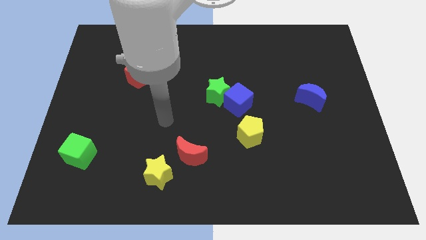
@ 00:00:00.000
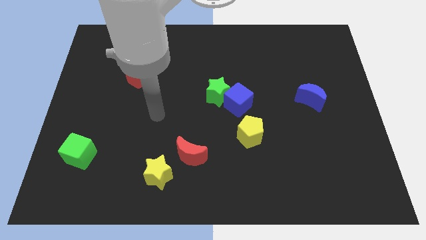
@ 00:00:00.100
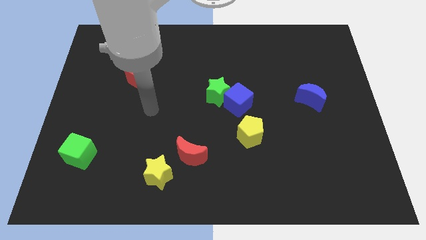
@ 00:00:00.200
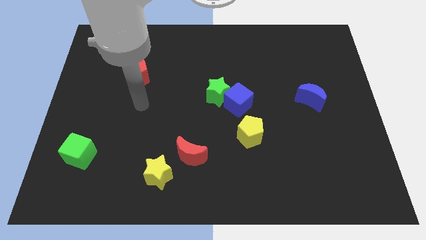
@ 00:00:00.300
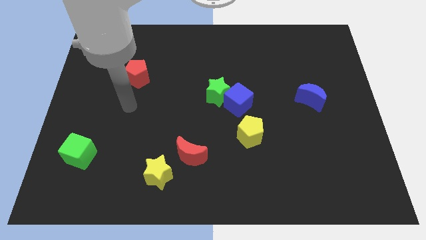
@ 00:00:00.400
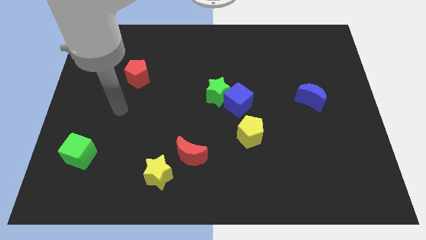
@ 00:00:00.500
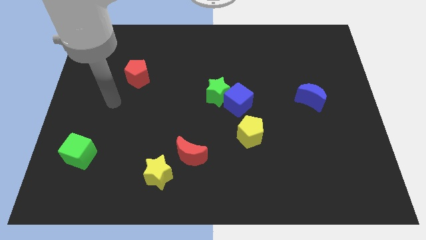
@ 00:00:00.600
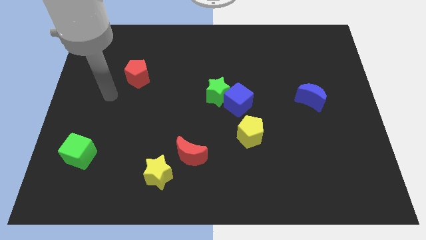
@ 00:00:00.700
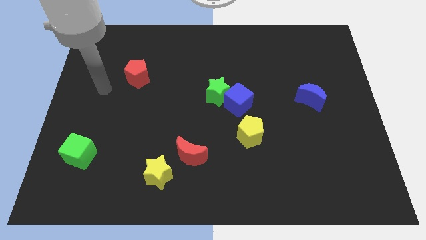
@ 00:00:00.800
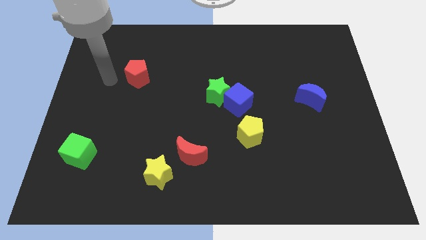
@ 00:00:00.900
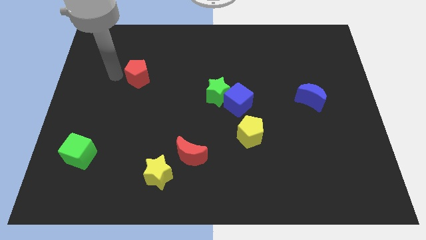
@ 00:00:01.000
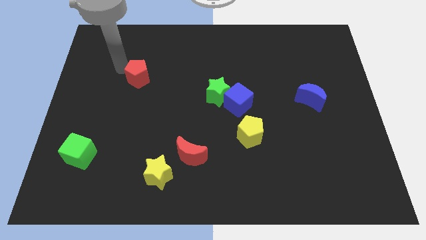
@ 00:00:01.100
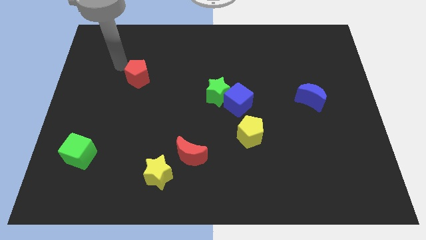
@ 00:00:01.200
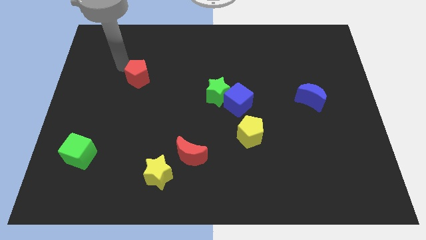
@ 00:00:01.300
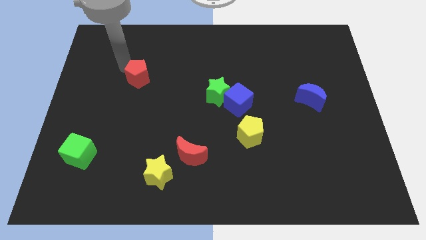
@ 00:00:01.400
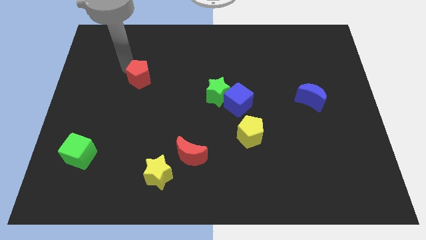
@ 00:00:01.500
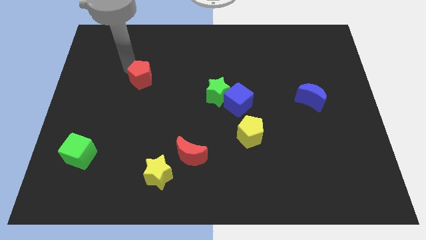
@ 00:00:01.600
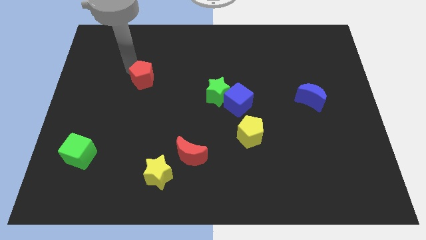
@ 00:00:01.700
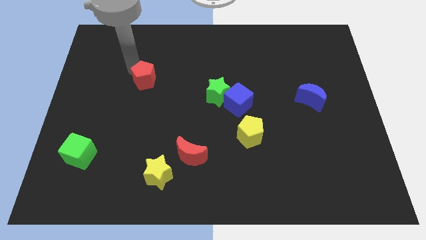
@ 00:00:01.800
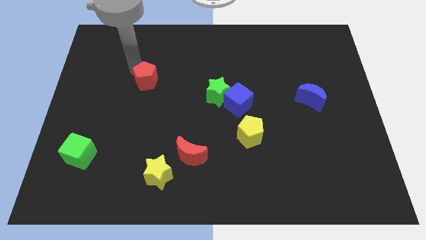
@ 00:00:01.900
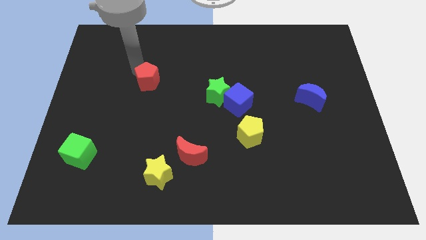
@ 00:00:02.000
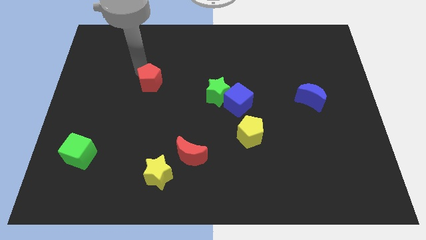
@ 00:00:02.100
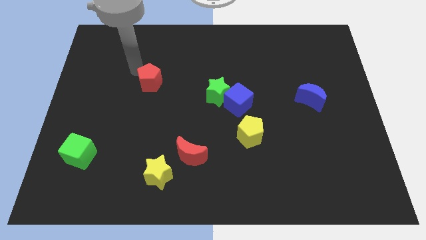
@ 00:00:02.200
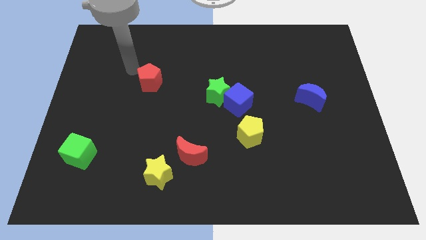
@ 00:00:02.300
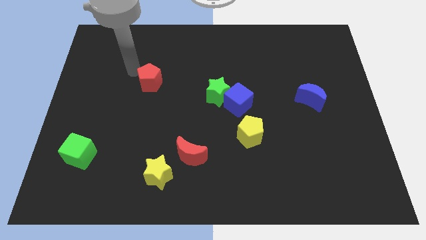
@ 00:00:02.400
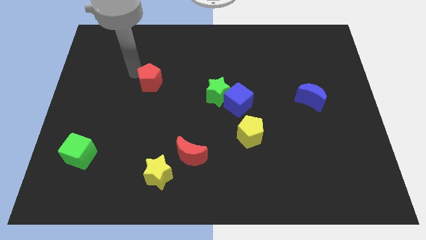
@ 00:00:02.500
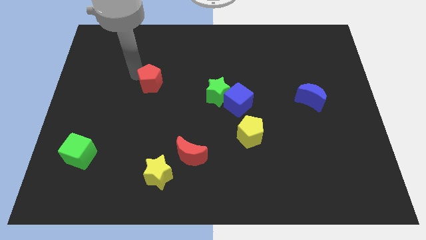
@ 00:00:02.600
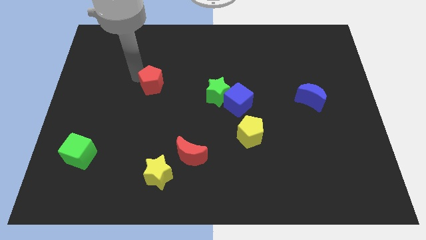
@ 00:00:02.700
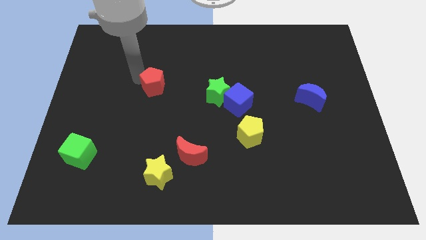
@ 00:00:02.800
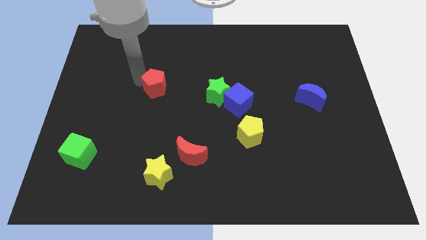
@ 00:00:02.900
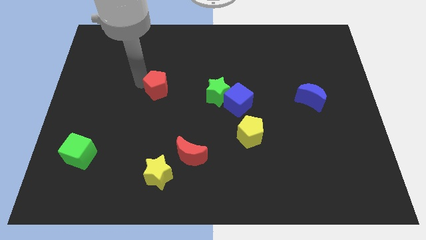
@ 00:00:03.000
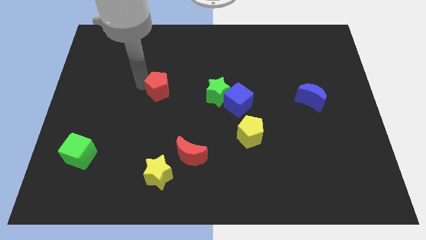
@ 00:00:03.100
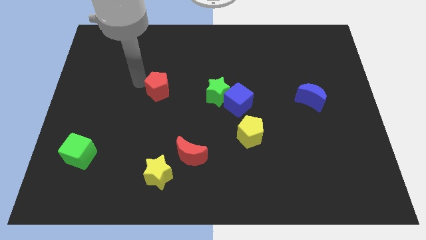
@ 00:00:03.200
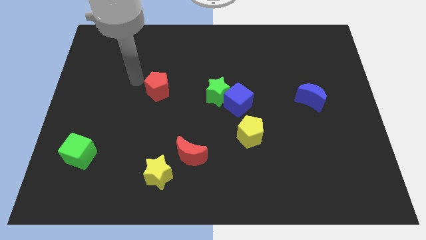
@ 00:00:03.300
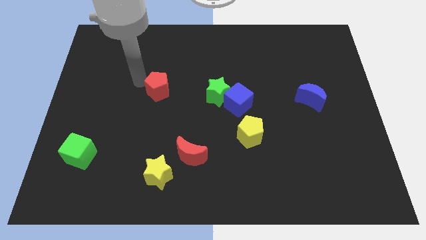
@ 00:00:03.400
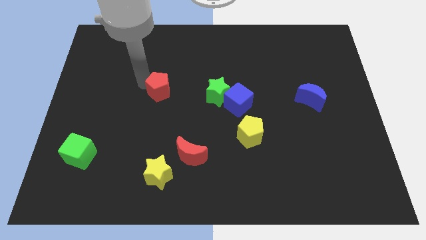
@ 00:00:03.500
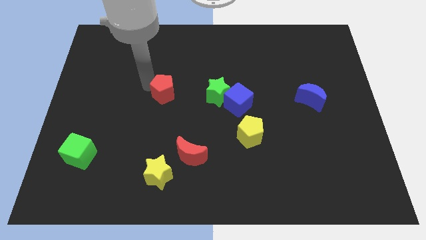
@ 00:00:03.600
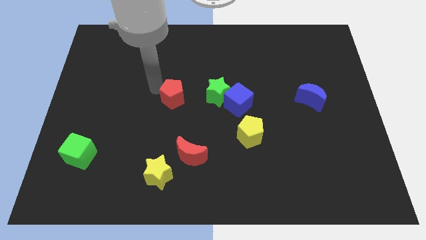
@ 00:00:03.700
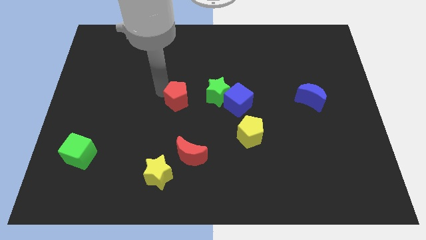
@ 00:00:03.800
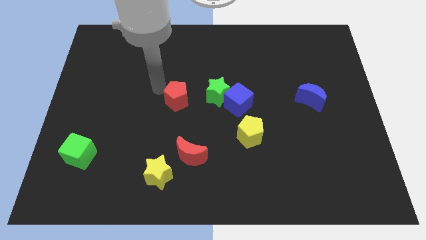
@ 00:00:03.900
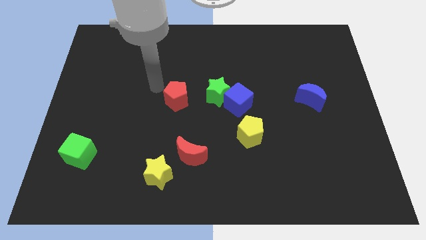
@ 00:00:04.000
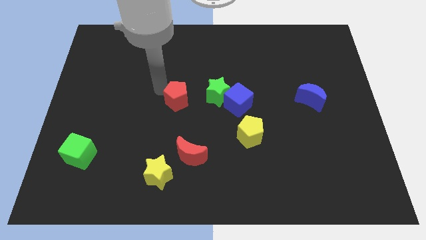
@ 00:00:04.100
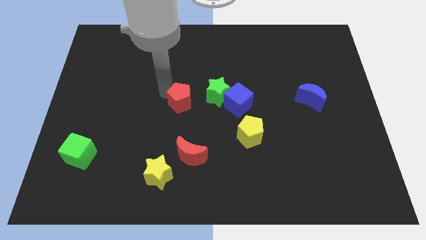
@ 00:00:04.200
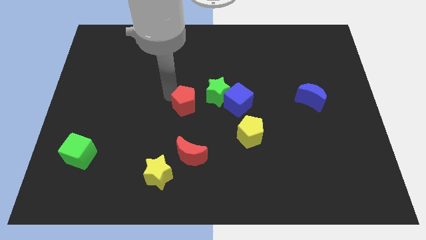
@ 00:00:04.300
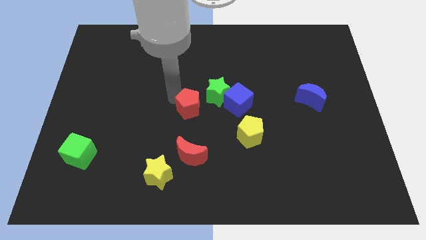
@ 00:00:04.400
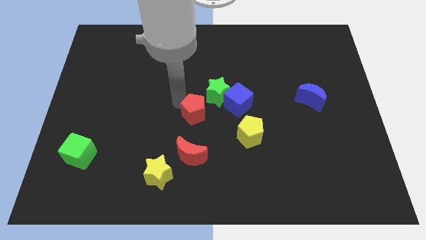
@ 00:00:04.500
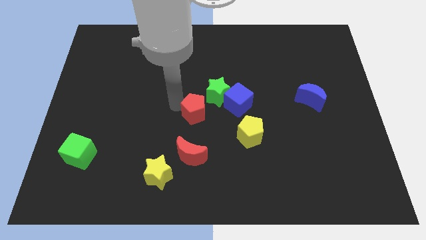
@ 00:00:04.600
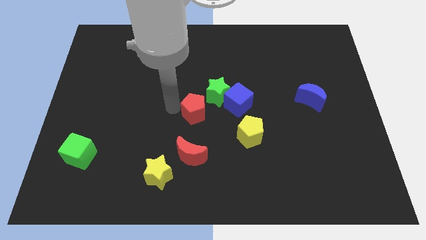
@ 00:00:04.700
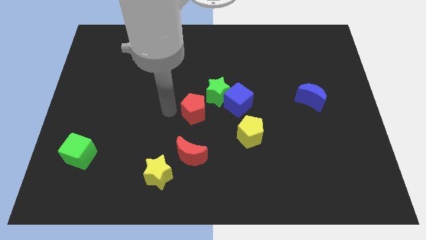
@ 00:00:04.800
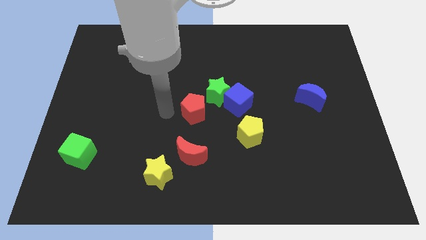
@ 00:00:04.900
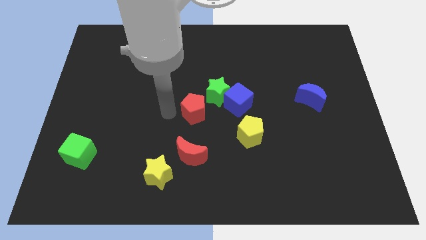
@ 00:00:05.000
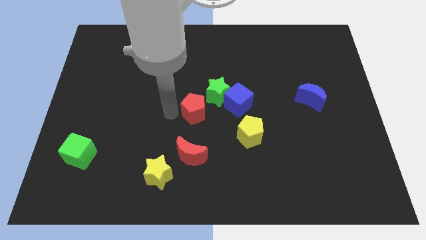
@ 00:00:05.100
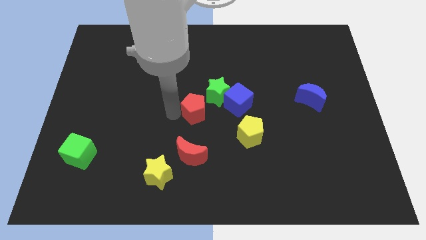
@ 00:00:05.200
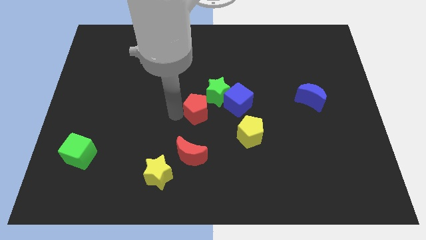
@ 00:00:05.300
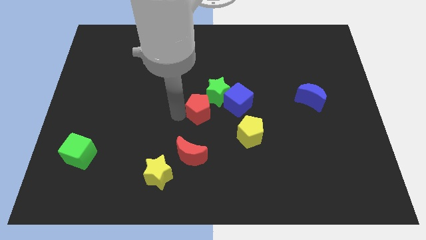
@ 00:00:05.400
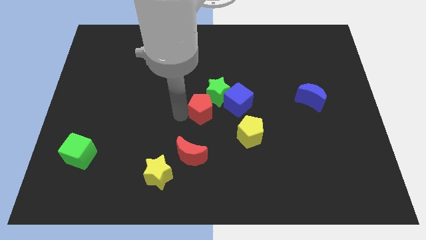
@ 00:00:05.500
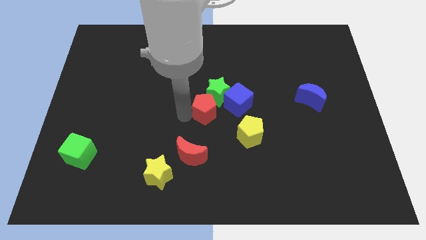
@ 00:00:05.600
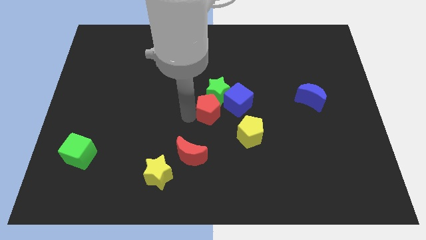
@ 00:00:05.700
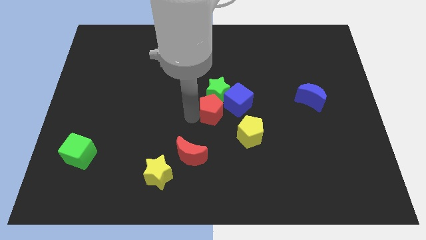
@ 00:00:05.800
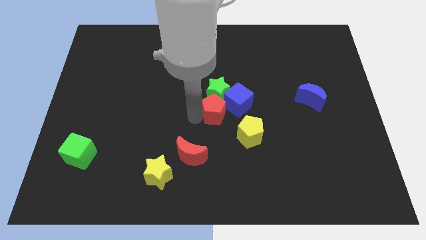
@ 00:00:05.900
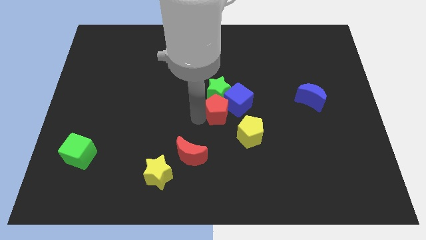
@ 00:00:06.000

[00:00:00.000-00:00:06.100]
move the red pentagon to the blue cube

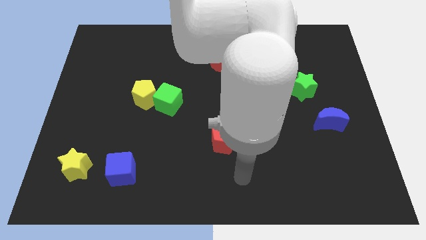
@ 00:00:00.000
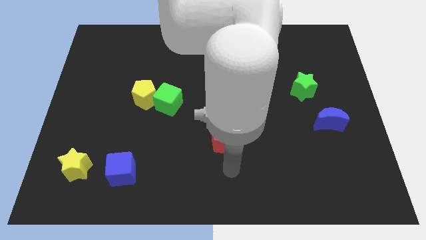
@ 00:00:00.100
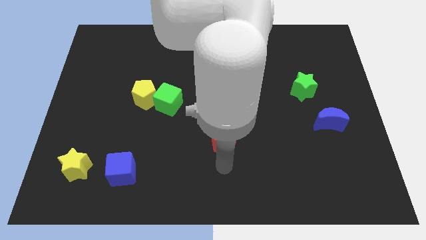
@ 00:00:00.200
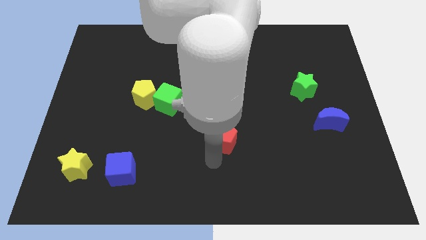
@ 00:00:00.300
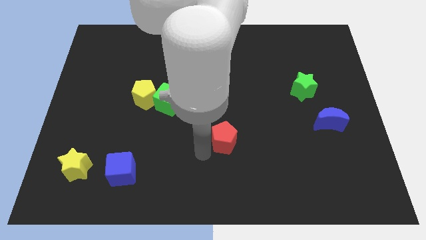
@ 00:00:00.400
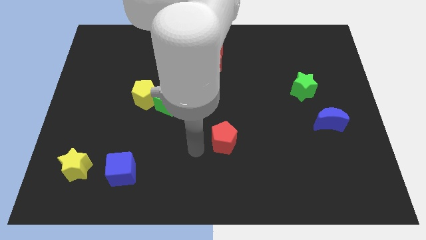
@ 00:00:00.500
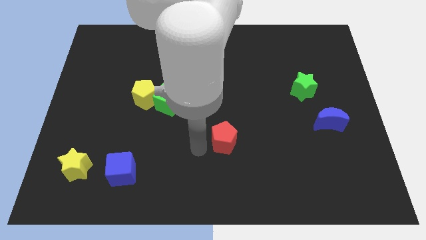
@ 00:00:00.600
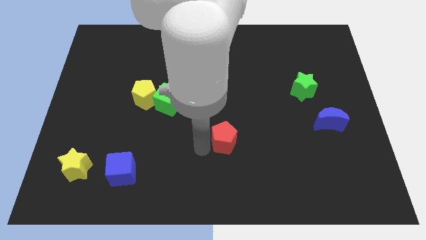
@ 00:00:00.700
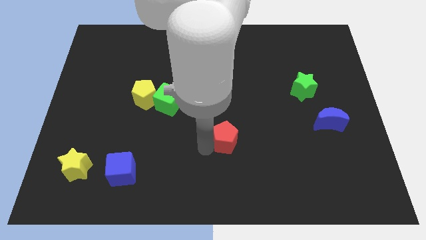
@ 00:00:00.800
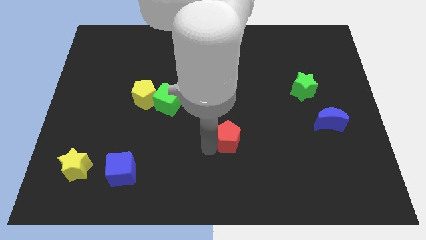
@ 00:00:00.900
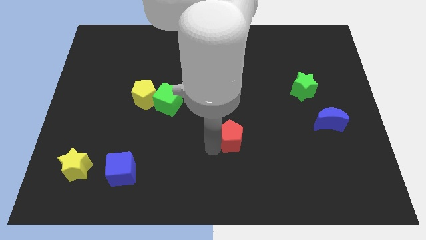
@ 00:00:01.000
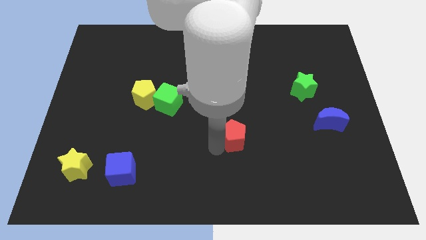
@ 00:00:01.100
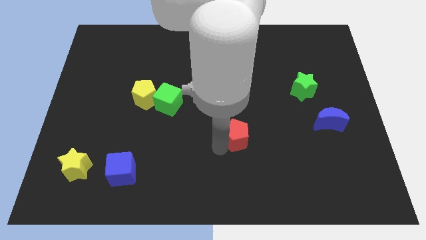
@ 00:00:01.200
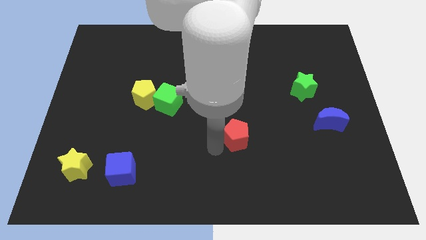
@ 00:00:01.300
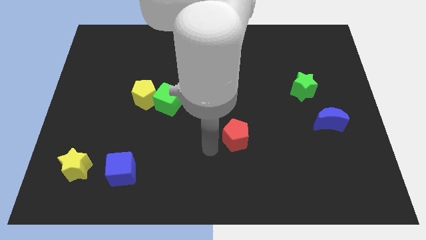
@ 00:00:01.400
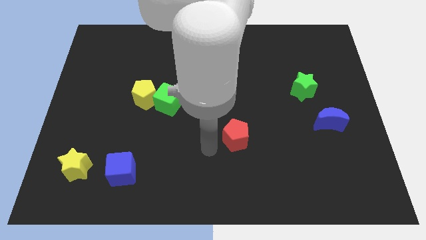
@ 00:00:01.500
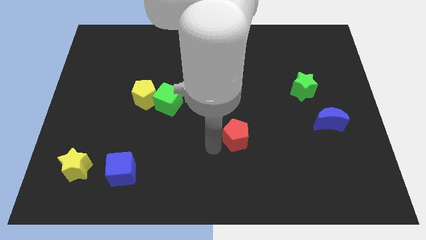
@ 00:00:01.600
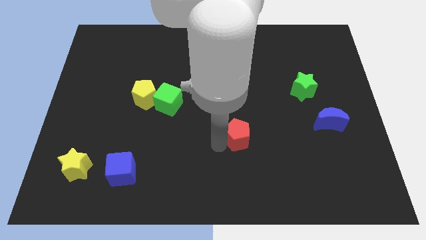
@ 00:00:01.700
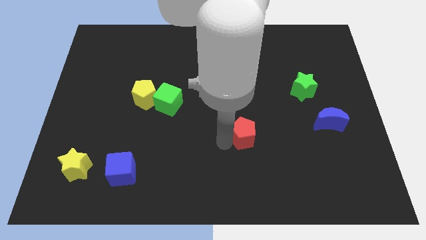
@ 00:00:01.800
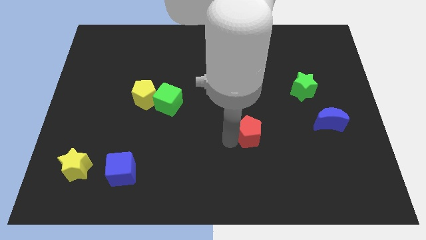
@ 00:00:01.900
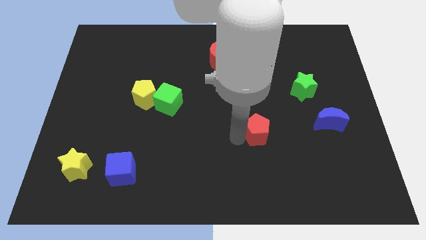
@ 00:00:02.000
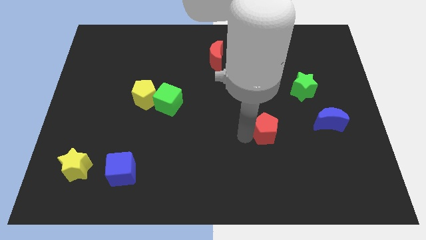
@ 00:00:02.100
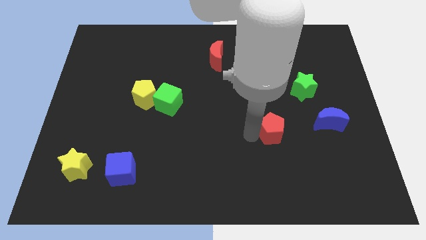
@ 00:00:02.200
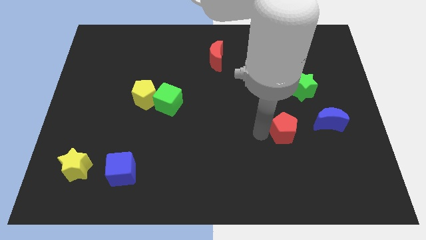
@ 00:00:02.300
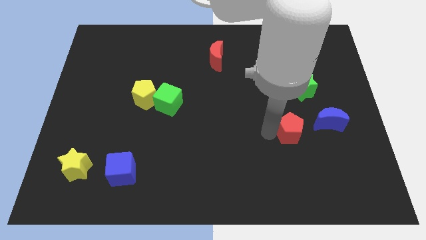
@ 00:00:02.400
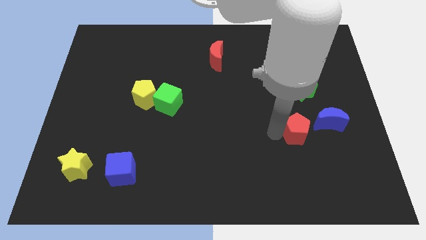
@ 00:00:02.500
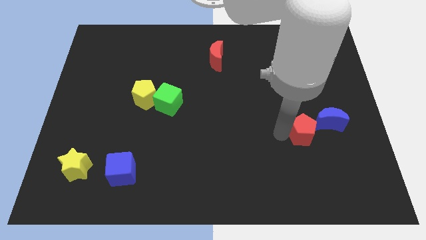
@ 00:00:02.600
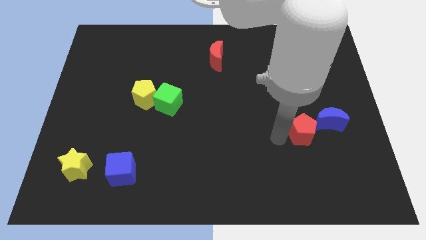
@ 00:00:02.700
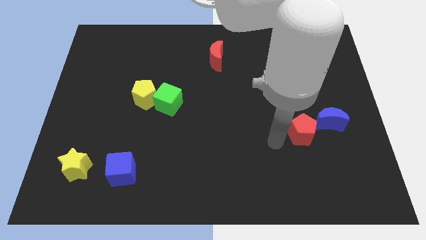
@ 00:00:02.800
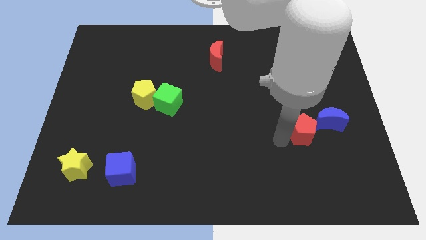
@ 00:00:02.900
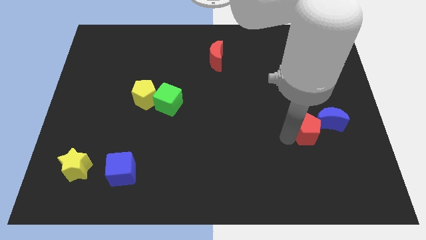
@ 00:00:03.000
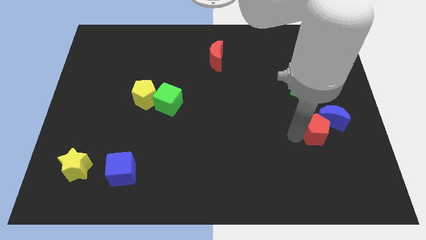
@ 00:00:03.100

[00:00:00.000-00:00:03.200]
put the red pentagon close to the blue moon
